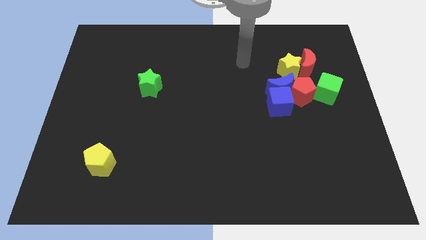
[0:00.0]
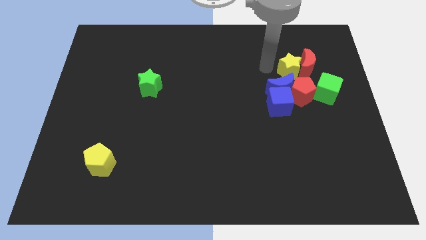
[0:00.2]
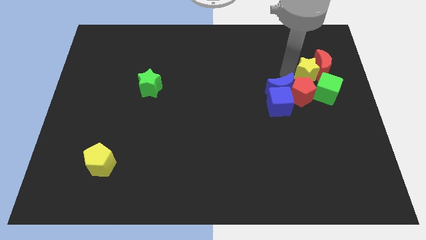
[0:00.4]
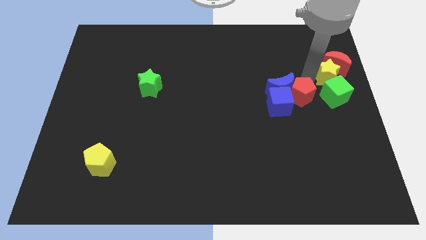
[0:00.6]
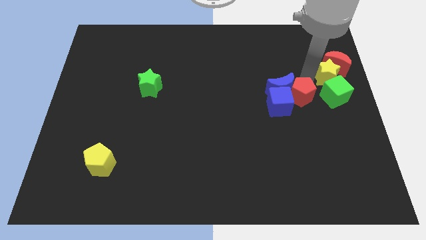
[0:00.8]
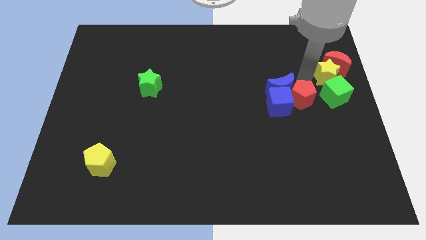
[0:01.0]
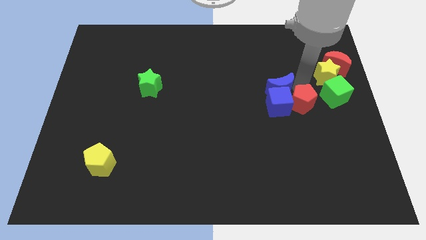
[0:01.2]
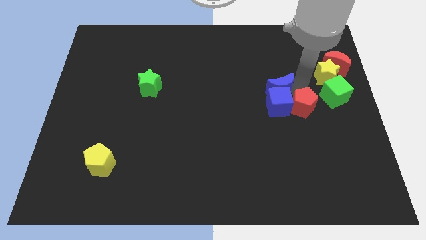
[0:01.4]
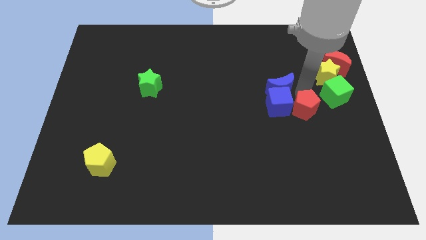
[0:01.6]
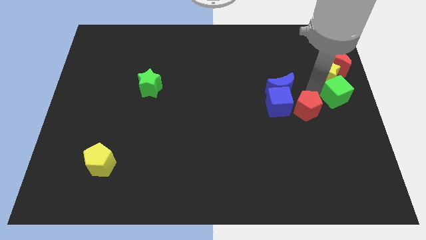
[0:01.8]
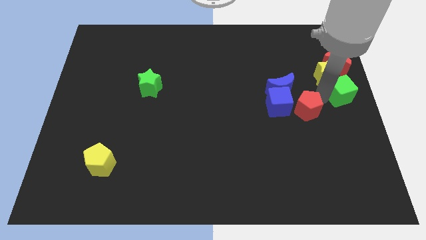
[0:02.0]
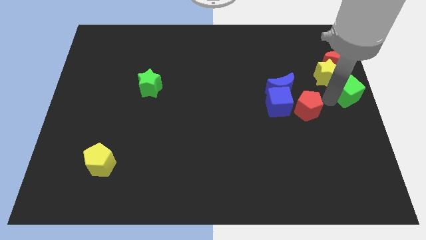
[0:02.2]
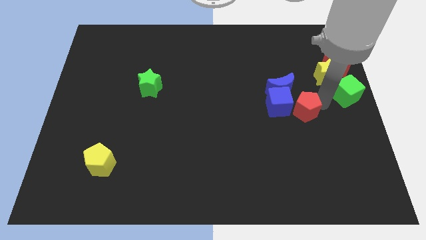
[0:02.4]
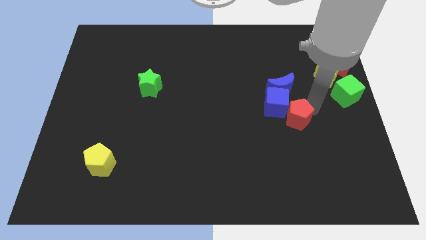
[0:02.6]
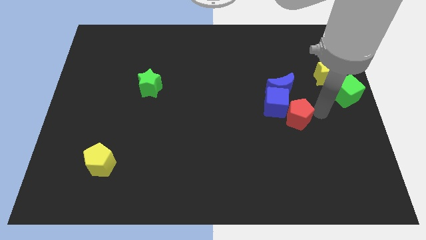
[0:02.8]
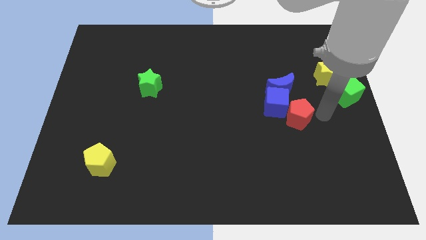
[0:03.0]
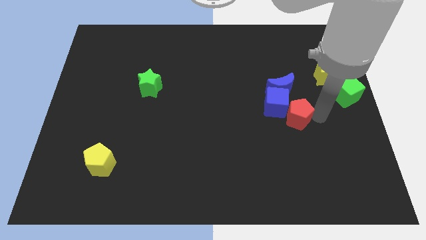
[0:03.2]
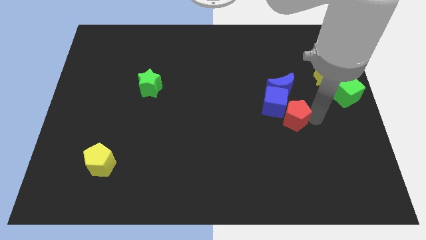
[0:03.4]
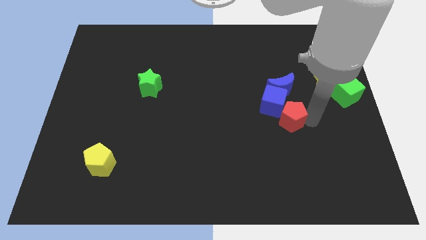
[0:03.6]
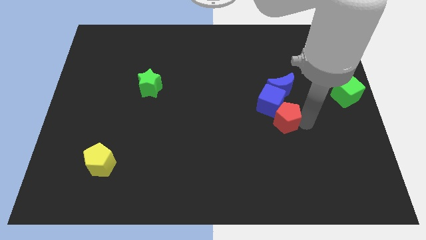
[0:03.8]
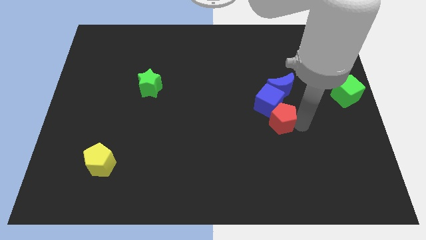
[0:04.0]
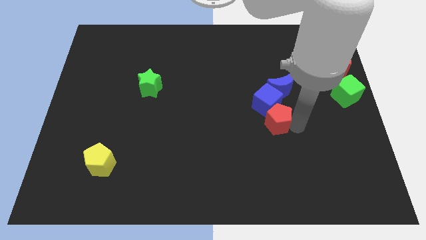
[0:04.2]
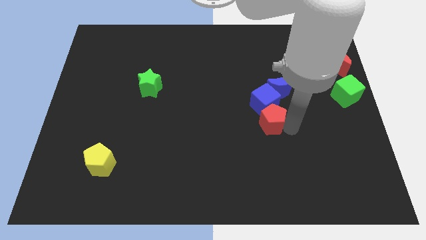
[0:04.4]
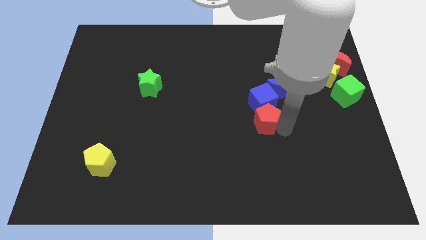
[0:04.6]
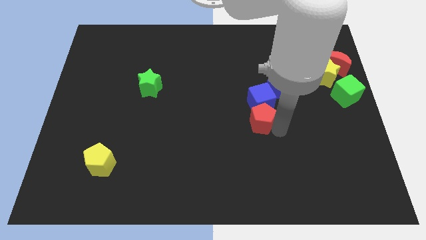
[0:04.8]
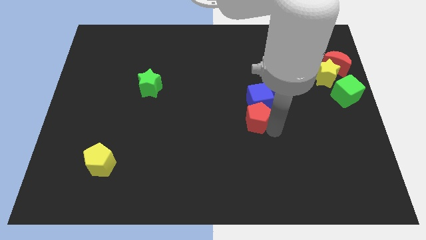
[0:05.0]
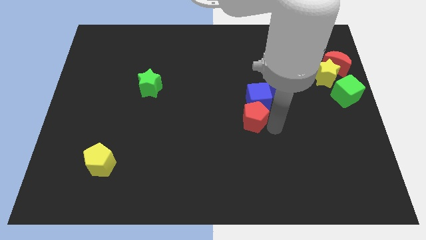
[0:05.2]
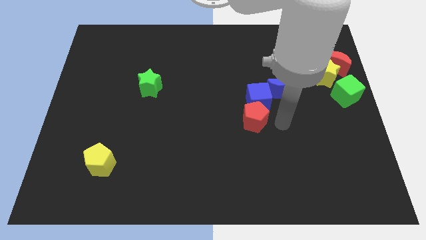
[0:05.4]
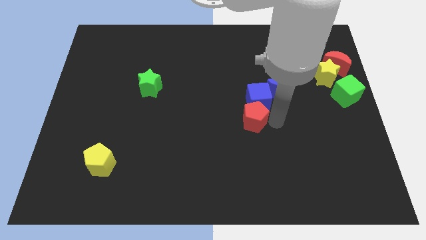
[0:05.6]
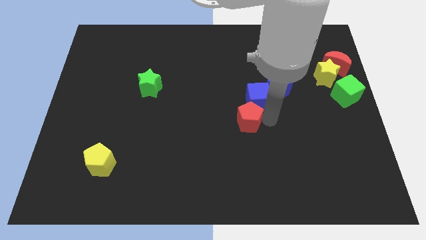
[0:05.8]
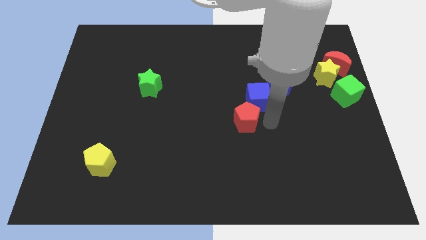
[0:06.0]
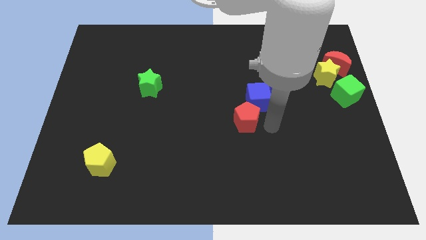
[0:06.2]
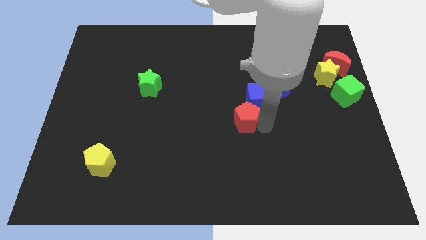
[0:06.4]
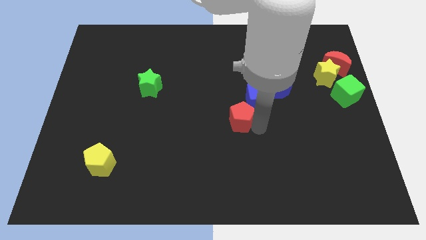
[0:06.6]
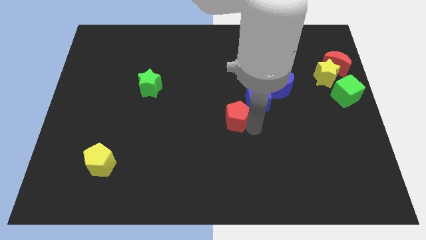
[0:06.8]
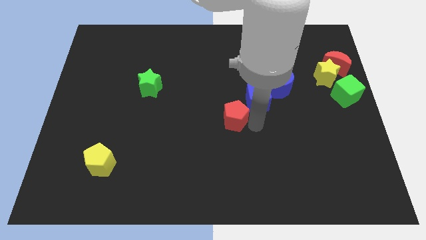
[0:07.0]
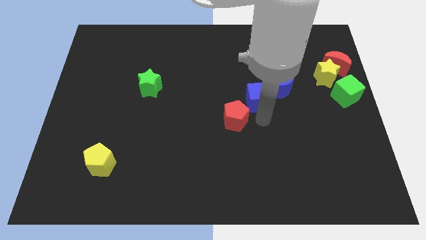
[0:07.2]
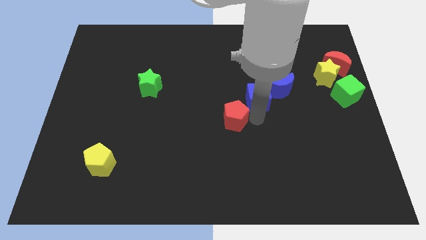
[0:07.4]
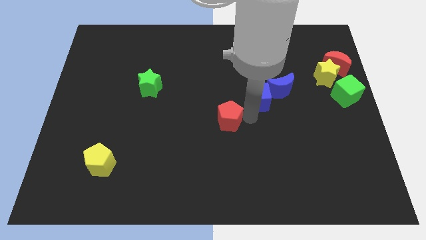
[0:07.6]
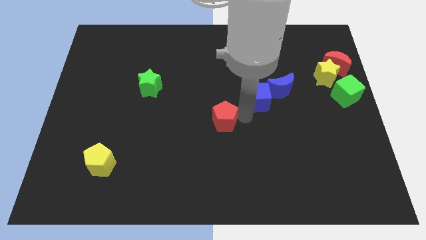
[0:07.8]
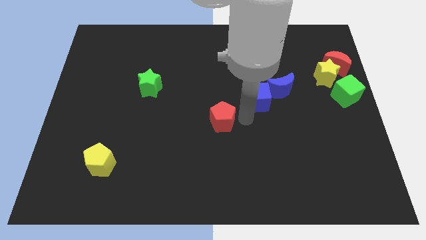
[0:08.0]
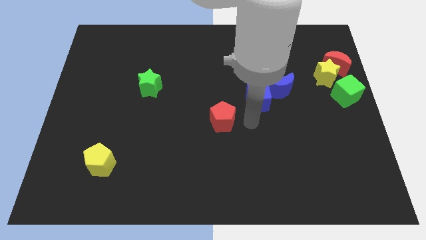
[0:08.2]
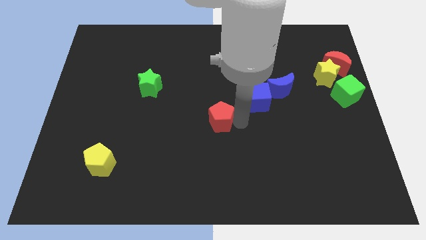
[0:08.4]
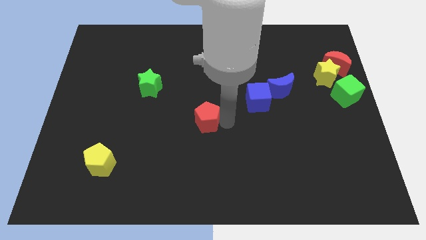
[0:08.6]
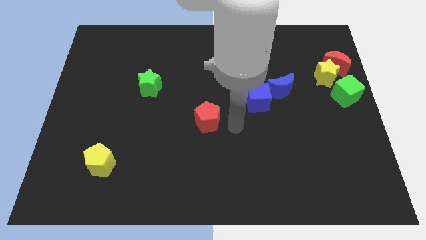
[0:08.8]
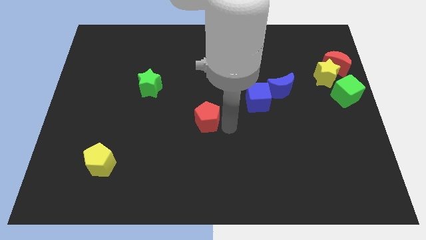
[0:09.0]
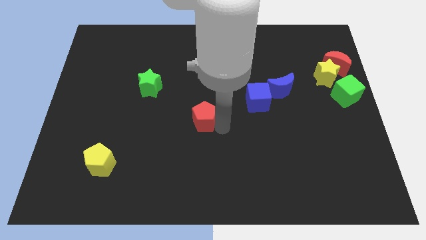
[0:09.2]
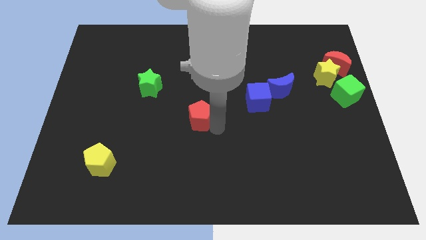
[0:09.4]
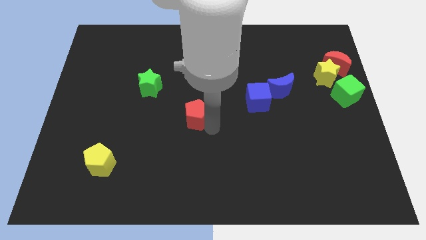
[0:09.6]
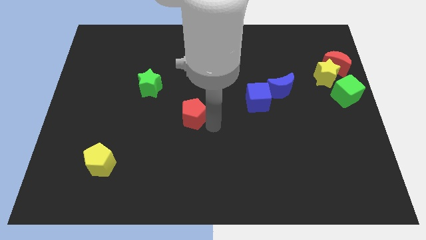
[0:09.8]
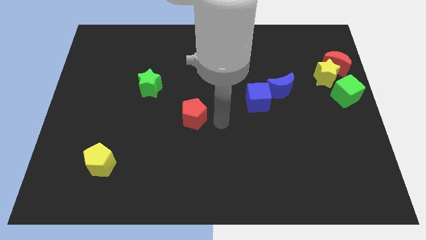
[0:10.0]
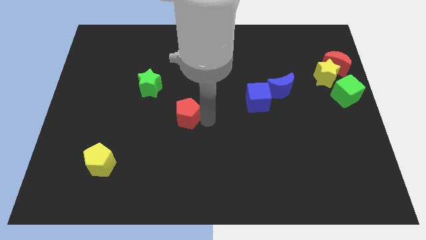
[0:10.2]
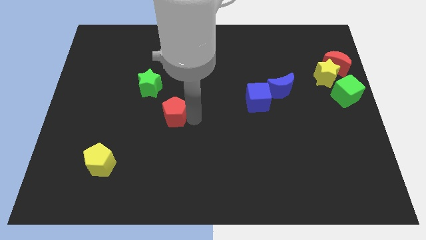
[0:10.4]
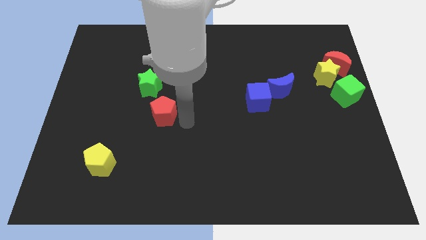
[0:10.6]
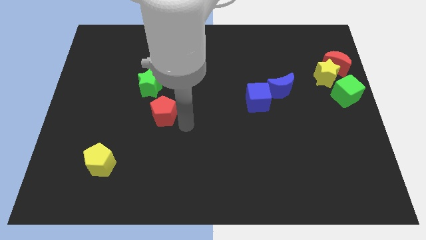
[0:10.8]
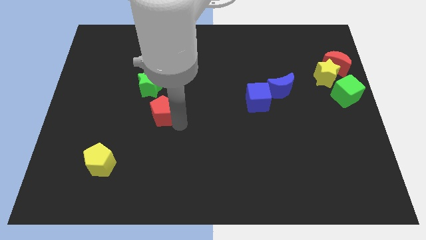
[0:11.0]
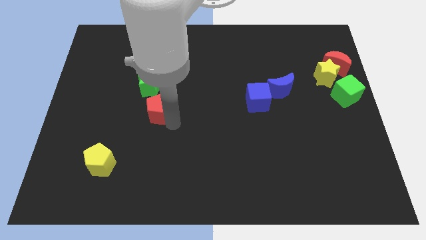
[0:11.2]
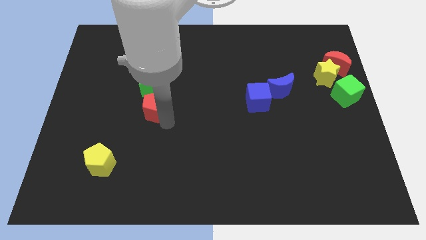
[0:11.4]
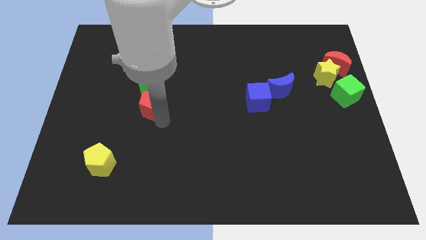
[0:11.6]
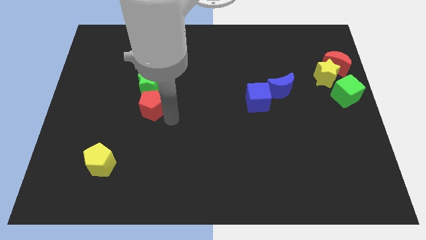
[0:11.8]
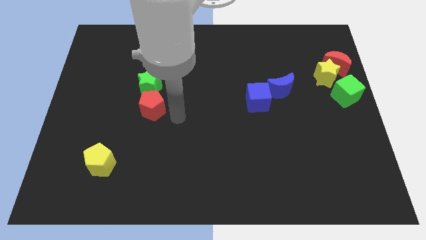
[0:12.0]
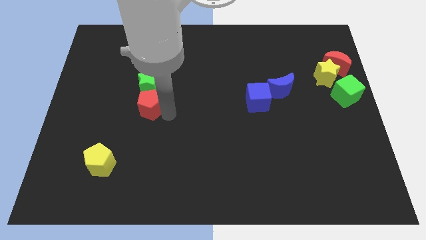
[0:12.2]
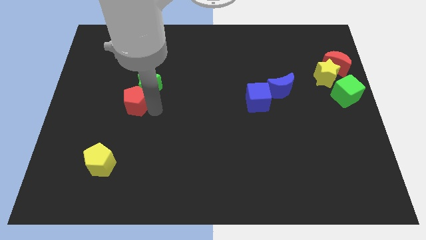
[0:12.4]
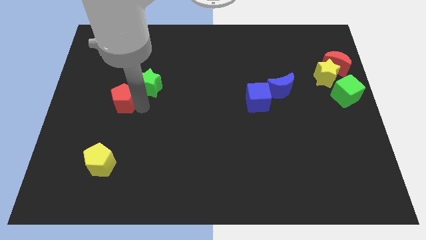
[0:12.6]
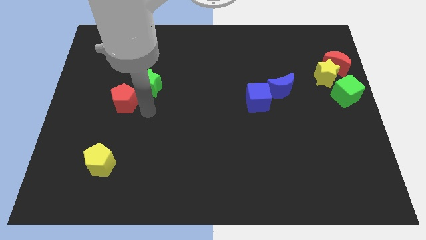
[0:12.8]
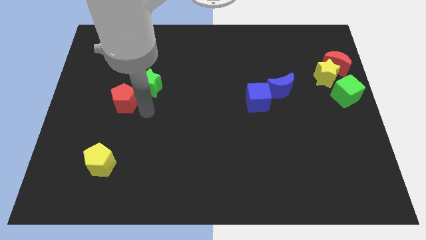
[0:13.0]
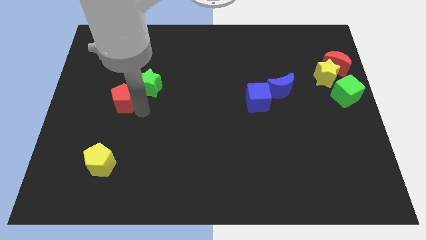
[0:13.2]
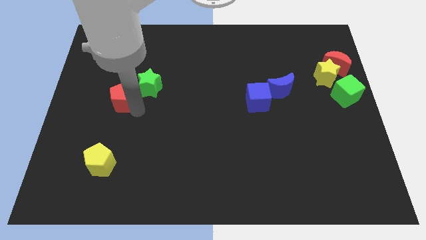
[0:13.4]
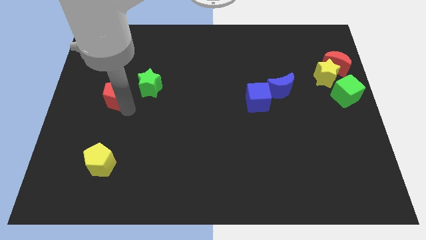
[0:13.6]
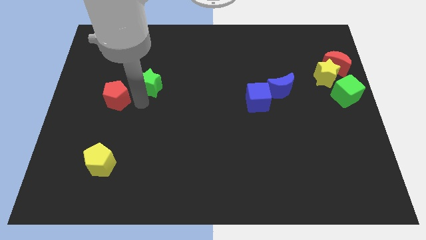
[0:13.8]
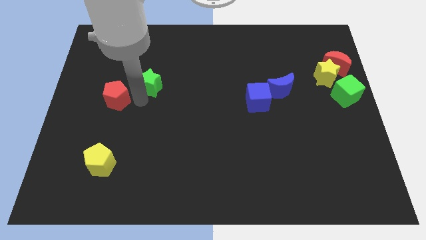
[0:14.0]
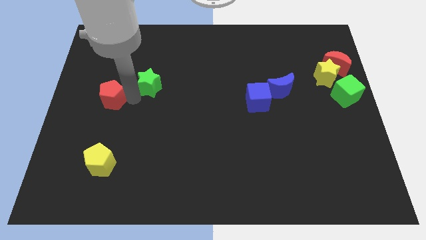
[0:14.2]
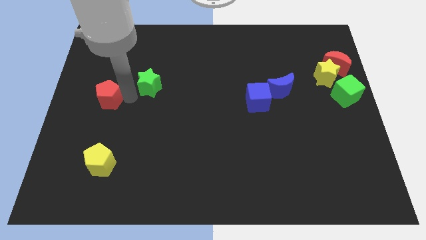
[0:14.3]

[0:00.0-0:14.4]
move the red pentagon to the left side

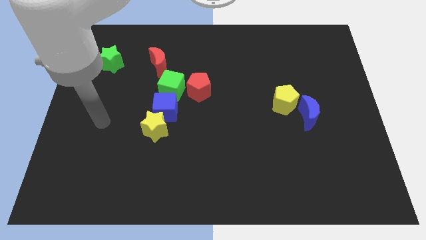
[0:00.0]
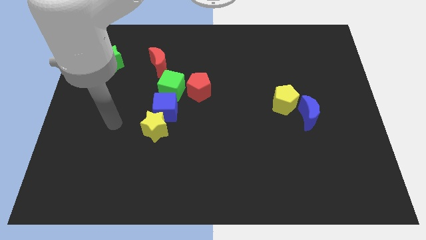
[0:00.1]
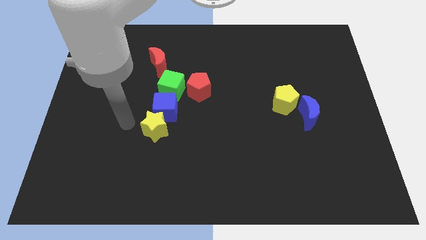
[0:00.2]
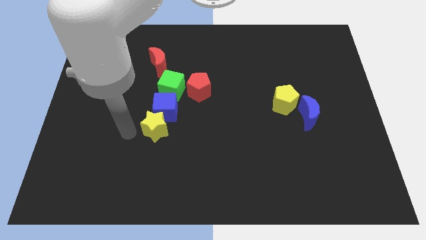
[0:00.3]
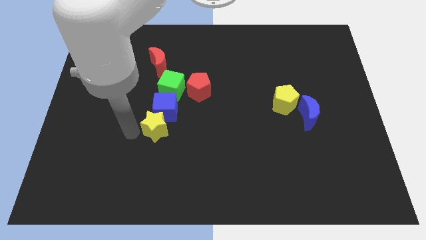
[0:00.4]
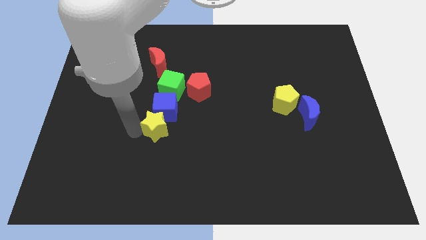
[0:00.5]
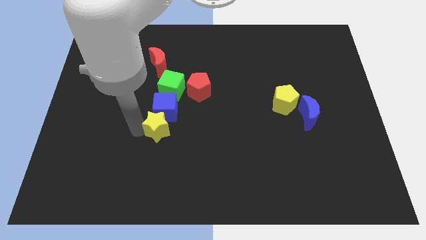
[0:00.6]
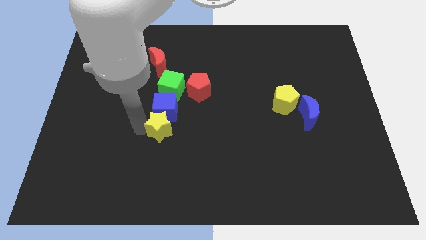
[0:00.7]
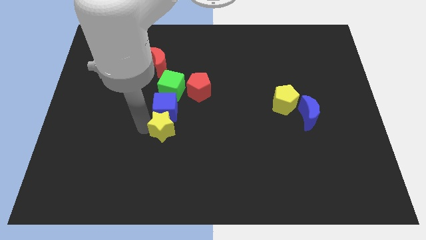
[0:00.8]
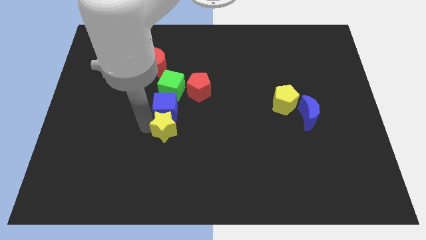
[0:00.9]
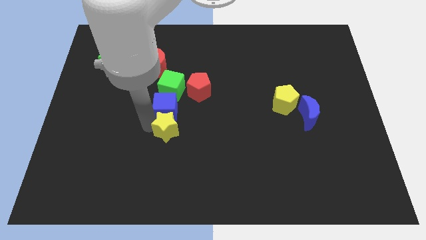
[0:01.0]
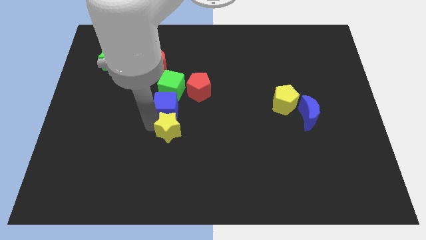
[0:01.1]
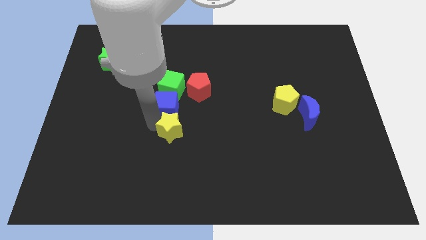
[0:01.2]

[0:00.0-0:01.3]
push the yellow star to the middle
